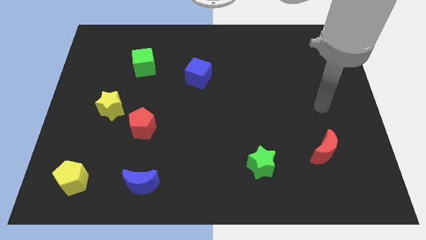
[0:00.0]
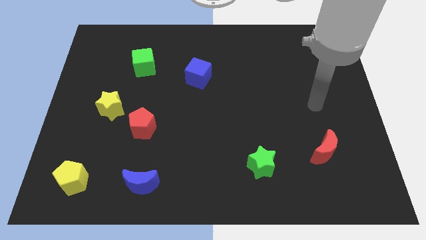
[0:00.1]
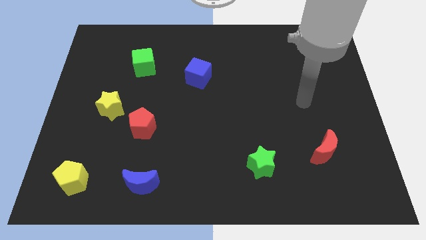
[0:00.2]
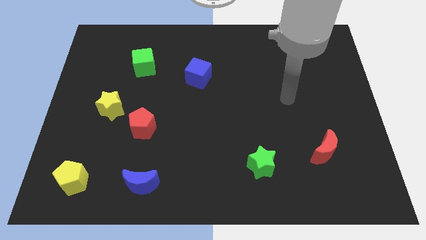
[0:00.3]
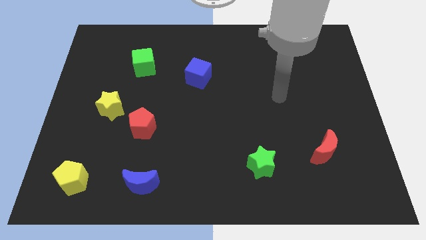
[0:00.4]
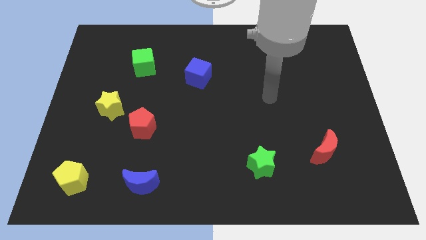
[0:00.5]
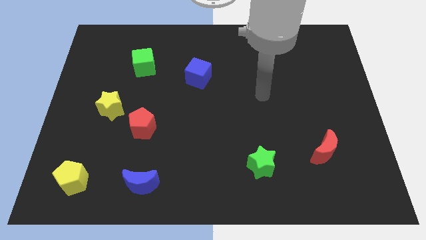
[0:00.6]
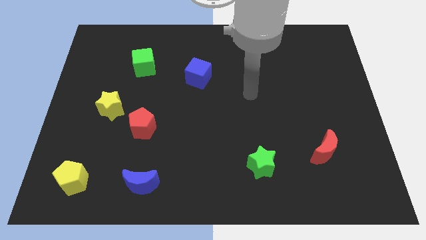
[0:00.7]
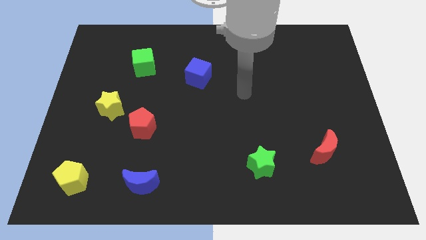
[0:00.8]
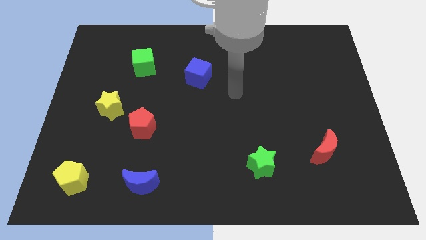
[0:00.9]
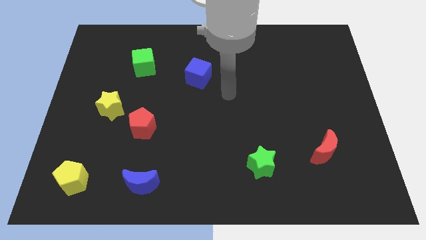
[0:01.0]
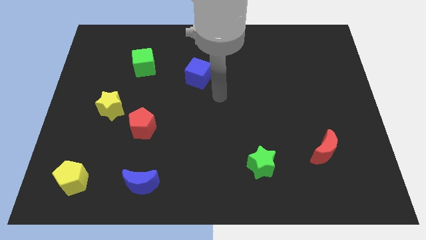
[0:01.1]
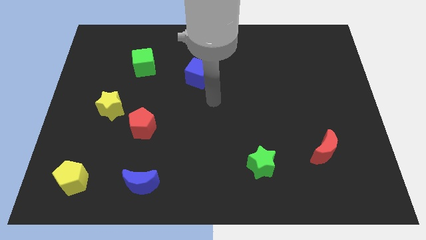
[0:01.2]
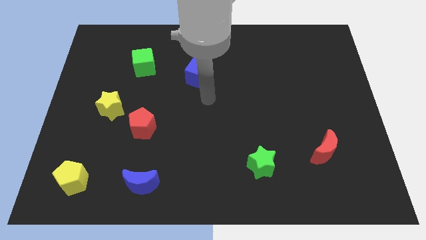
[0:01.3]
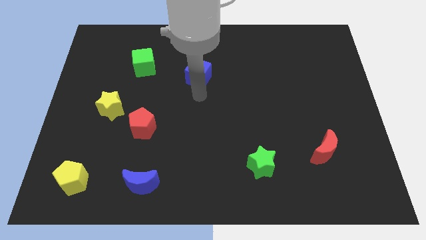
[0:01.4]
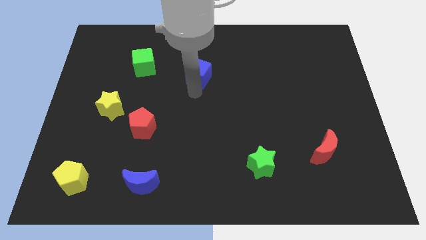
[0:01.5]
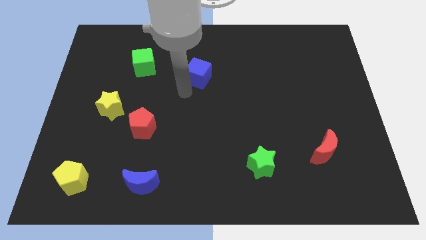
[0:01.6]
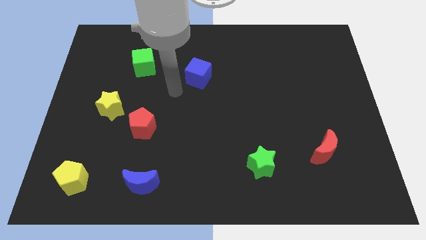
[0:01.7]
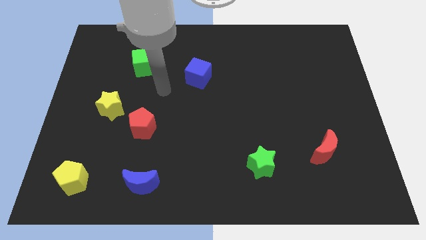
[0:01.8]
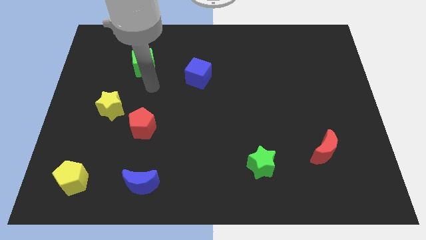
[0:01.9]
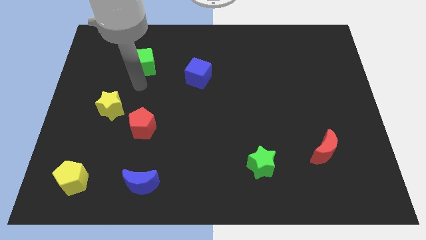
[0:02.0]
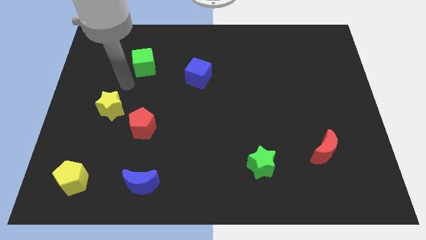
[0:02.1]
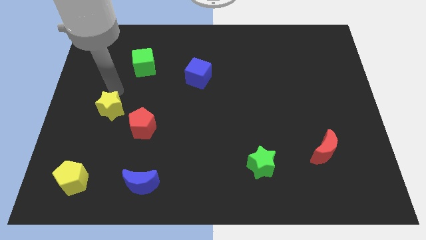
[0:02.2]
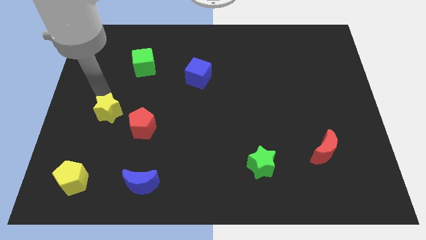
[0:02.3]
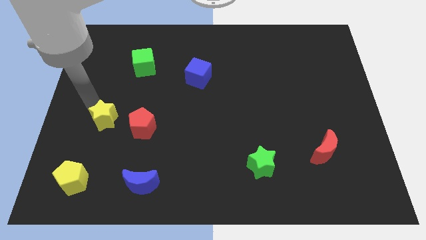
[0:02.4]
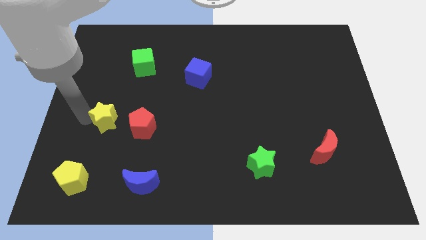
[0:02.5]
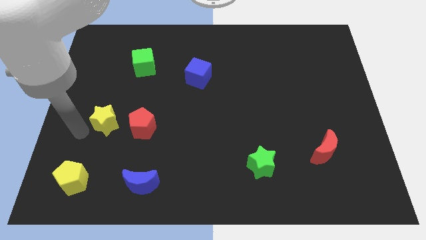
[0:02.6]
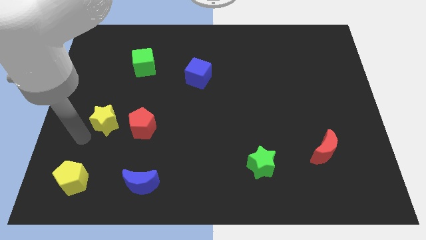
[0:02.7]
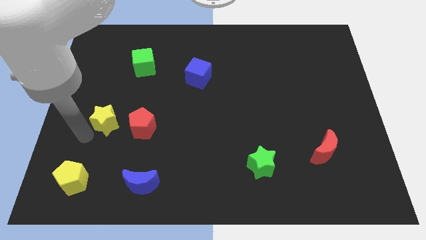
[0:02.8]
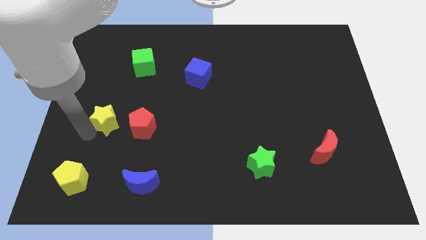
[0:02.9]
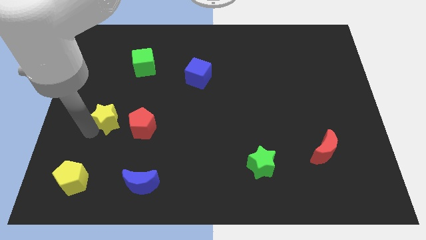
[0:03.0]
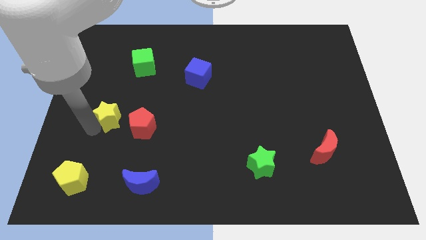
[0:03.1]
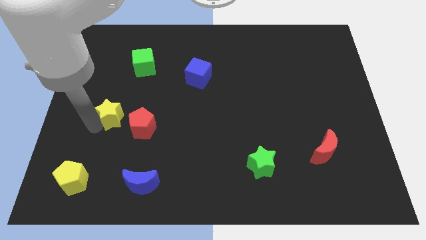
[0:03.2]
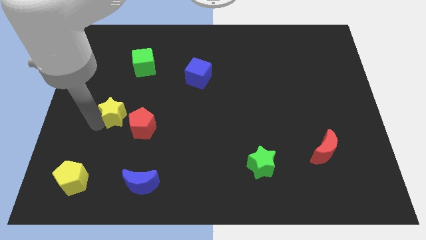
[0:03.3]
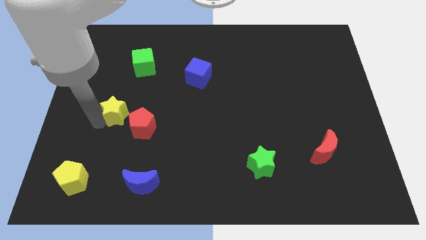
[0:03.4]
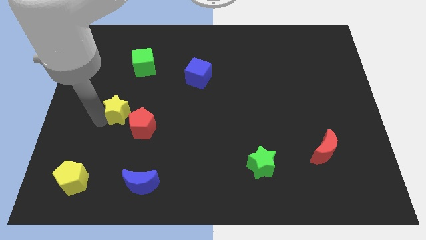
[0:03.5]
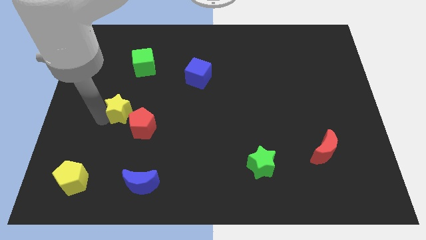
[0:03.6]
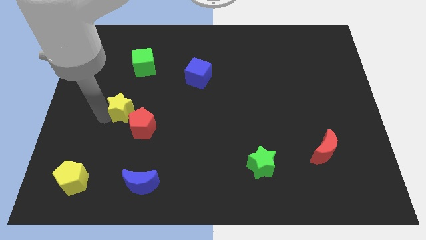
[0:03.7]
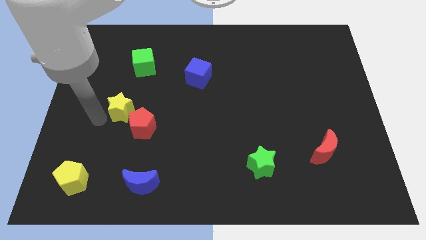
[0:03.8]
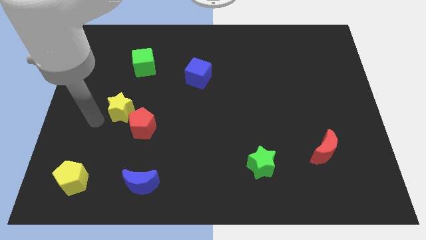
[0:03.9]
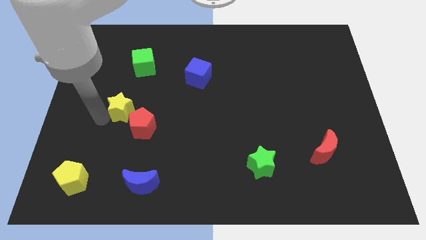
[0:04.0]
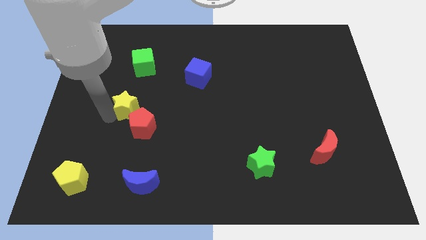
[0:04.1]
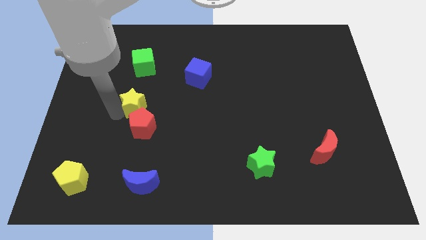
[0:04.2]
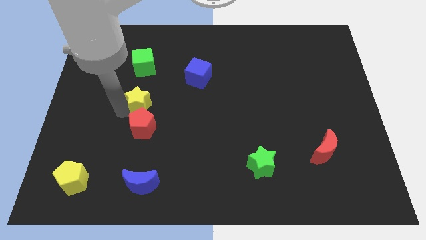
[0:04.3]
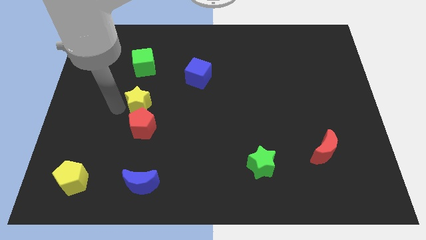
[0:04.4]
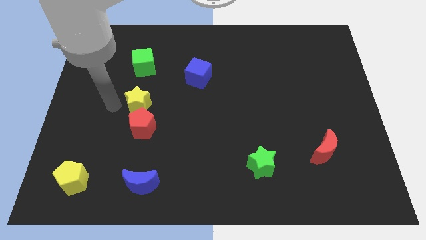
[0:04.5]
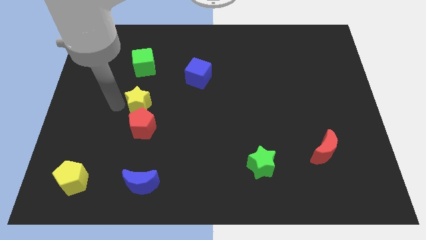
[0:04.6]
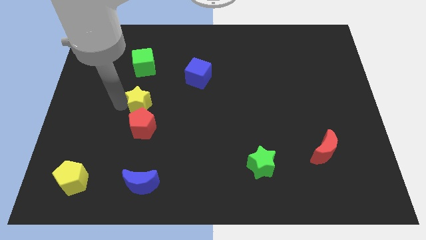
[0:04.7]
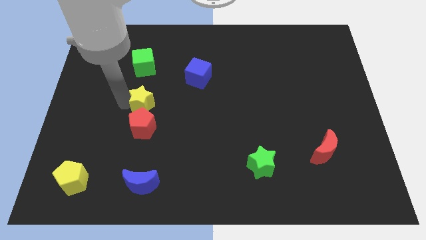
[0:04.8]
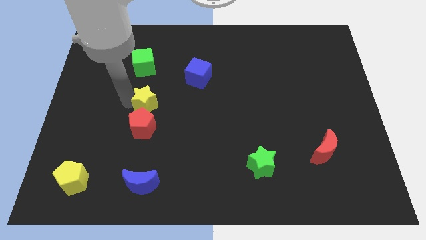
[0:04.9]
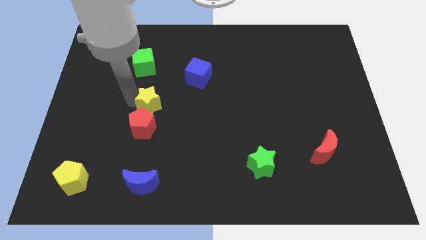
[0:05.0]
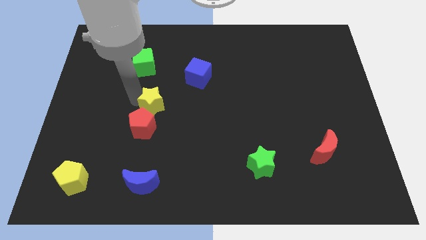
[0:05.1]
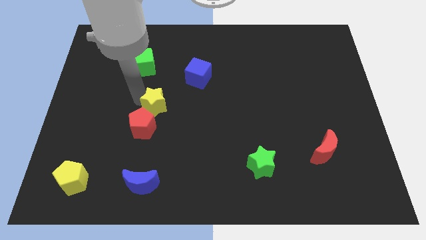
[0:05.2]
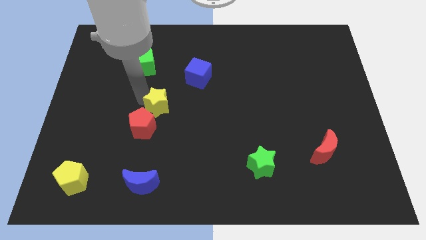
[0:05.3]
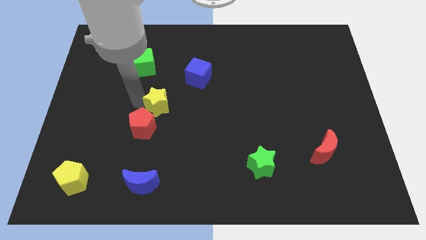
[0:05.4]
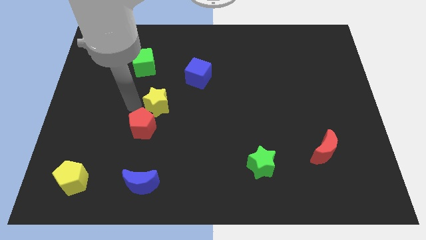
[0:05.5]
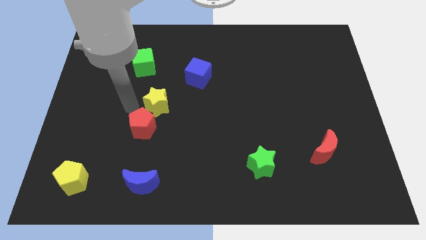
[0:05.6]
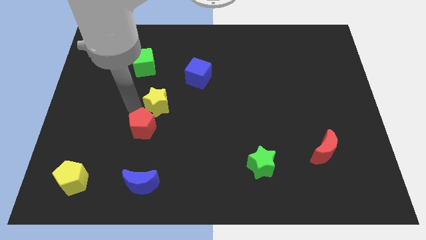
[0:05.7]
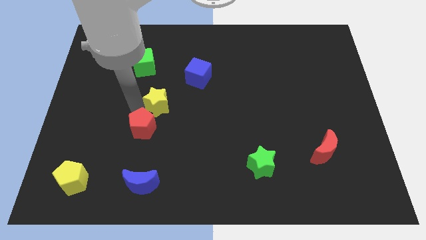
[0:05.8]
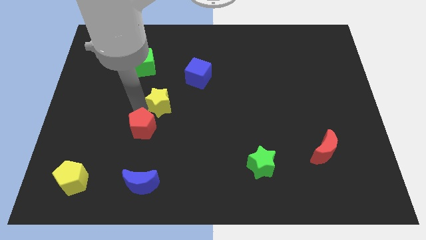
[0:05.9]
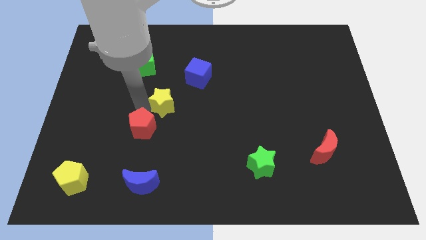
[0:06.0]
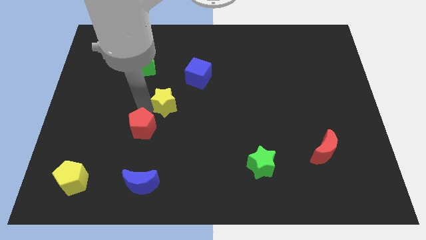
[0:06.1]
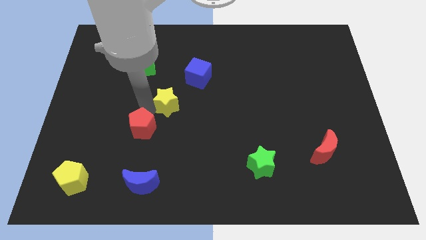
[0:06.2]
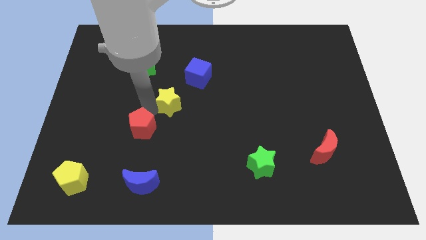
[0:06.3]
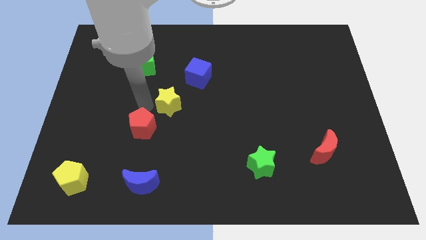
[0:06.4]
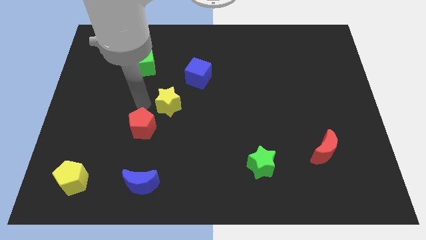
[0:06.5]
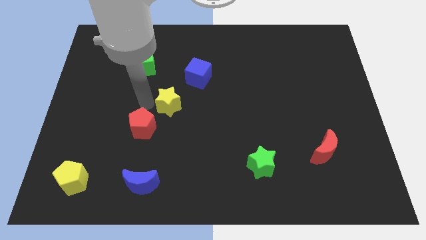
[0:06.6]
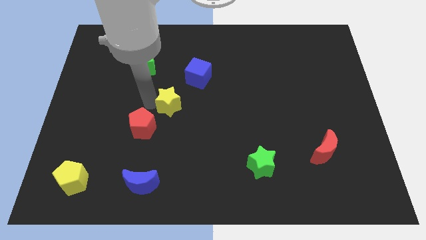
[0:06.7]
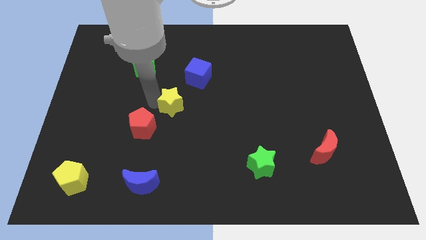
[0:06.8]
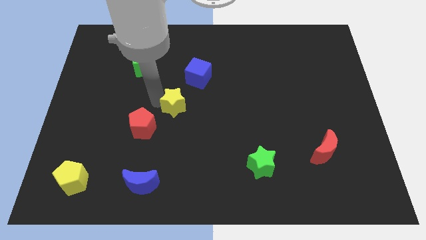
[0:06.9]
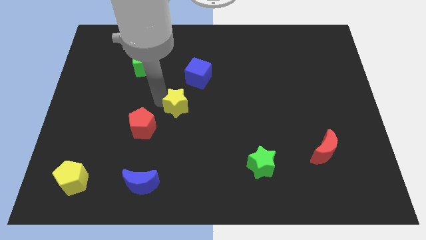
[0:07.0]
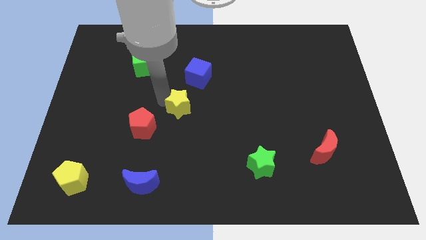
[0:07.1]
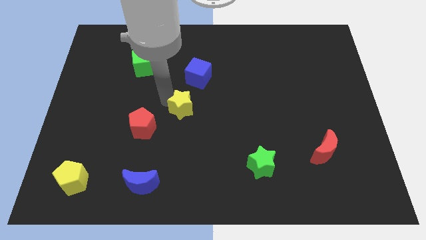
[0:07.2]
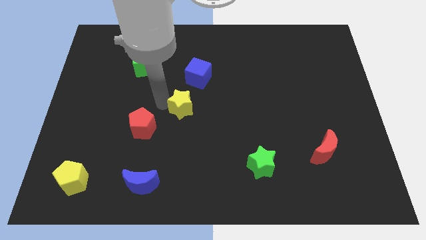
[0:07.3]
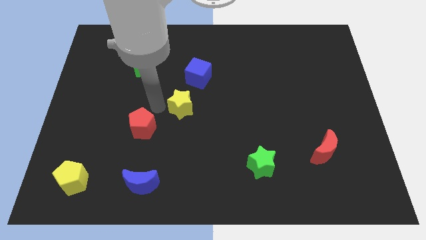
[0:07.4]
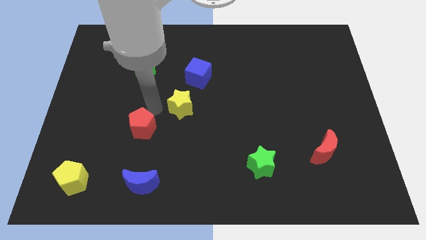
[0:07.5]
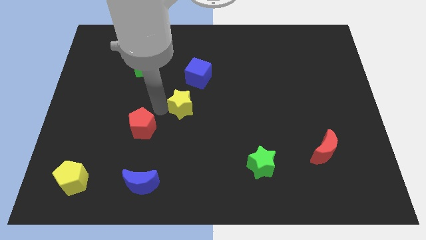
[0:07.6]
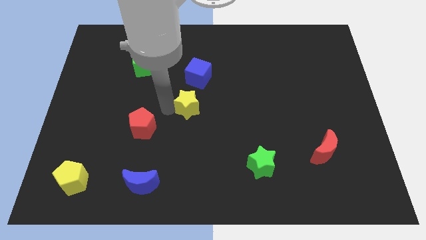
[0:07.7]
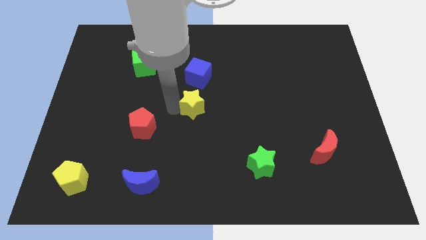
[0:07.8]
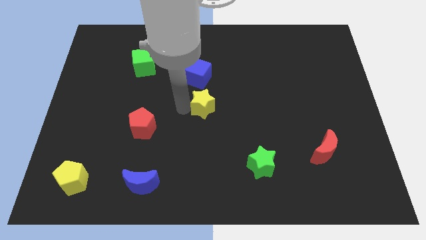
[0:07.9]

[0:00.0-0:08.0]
push the yellow star right
